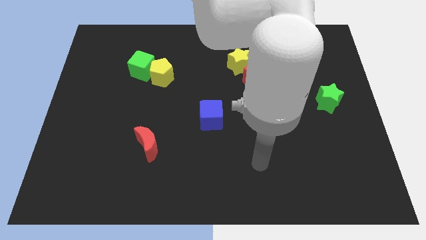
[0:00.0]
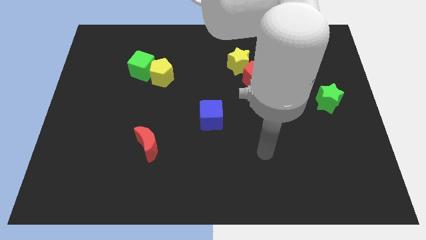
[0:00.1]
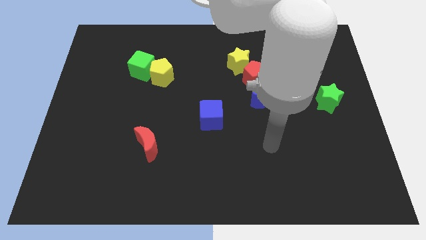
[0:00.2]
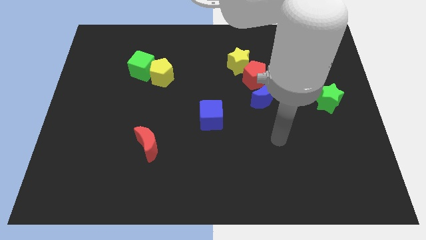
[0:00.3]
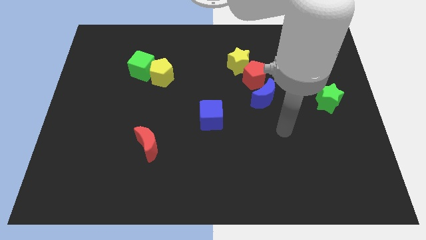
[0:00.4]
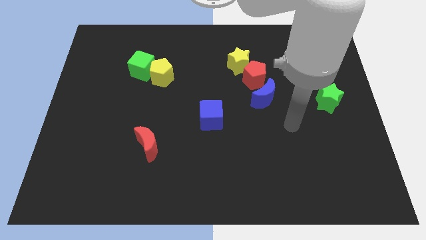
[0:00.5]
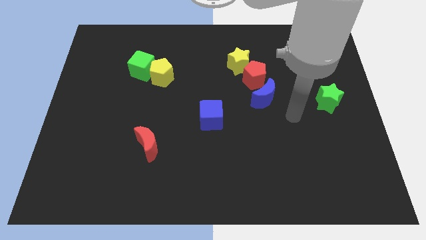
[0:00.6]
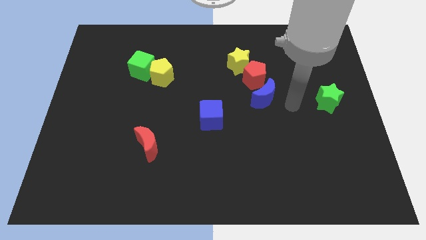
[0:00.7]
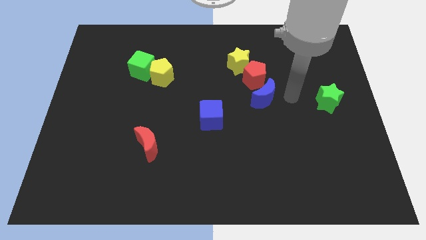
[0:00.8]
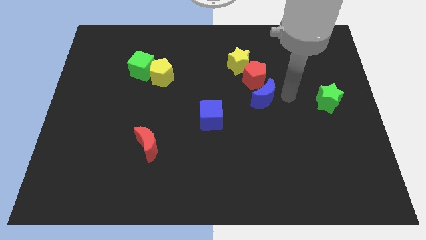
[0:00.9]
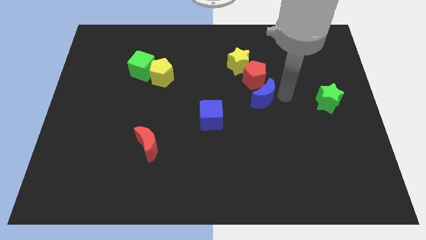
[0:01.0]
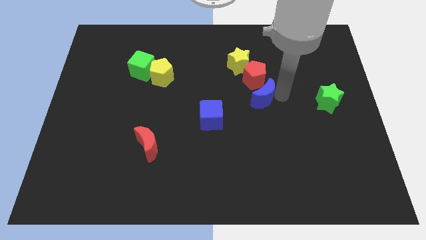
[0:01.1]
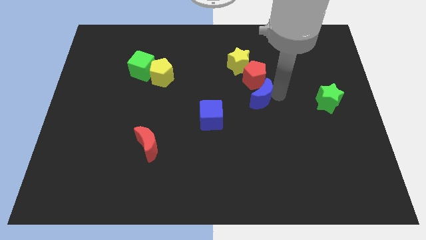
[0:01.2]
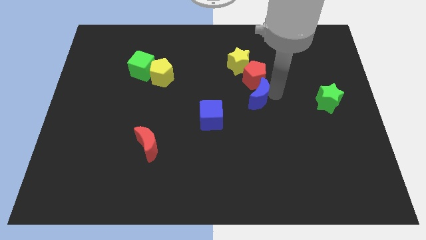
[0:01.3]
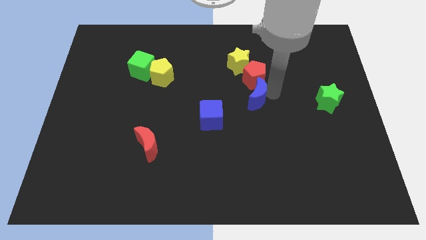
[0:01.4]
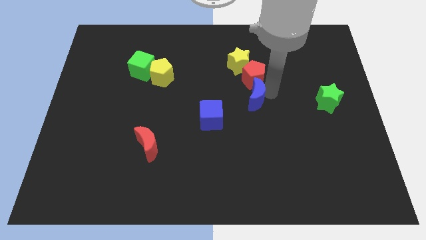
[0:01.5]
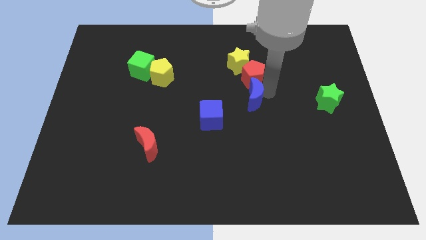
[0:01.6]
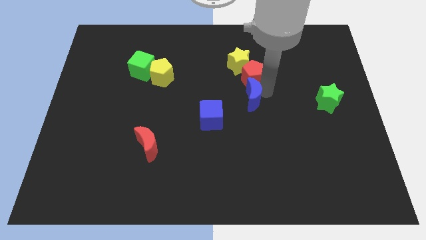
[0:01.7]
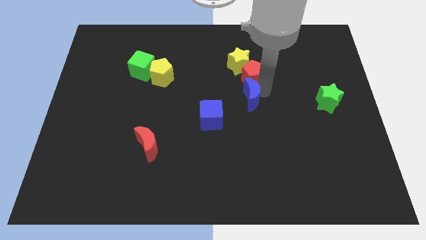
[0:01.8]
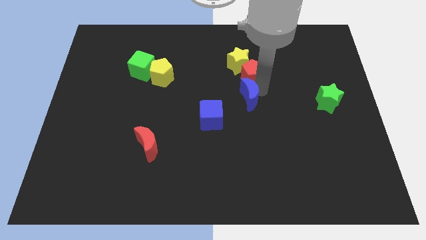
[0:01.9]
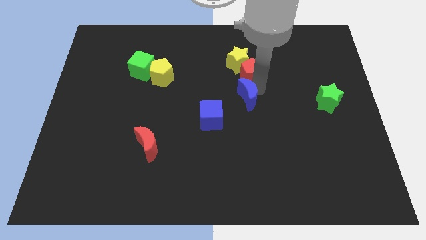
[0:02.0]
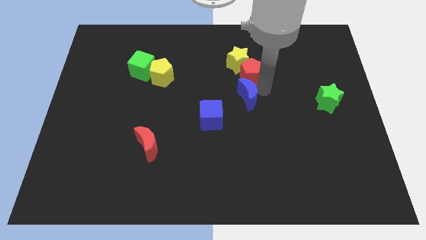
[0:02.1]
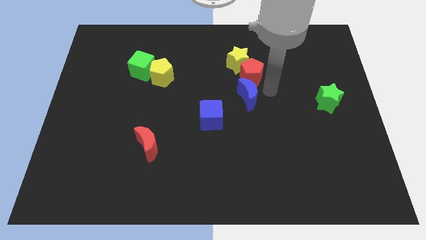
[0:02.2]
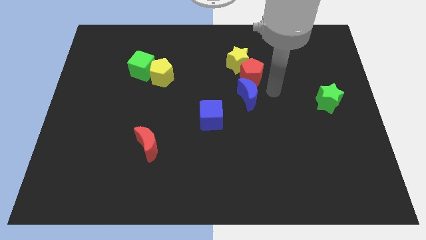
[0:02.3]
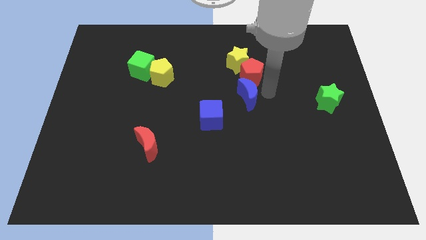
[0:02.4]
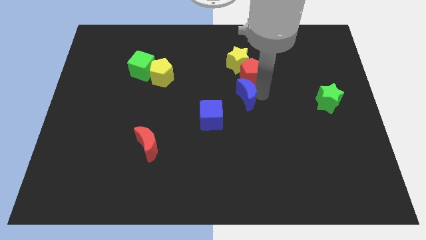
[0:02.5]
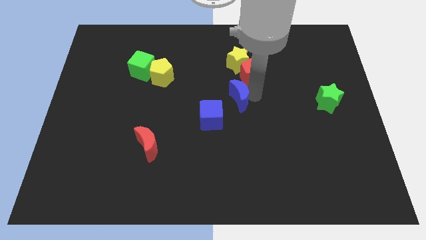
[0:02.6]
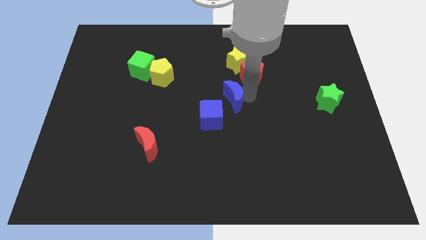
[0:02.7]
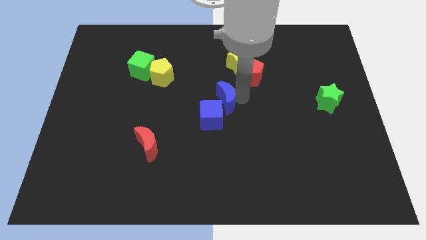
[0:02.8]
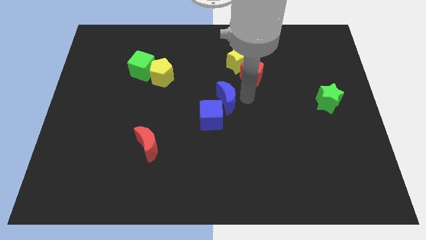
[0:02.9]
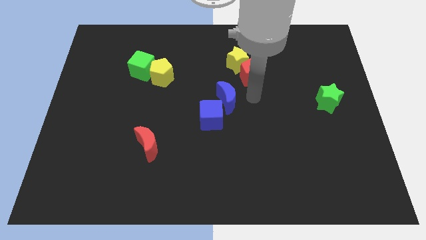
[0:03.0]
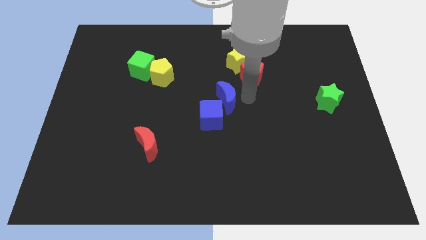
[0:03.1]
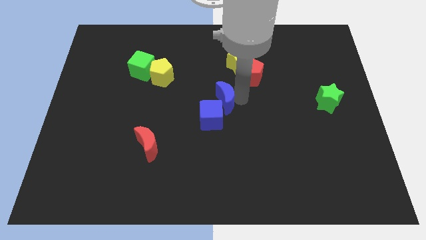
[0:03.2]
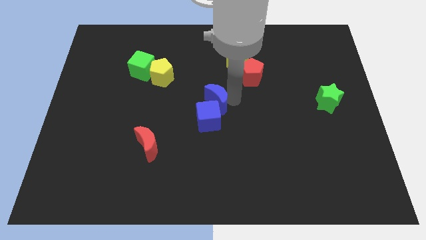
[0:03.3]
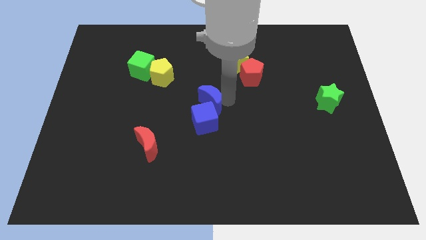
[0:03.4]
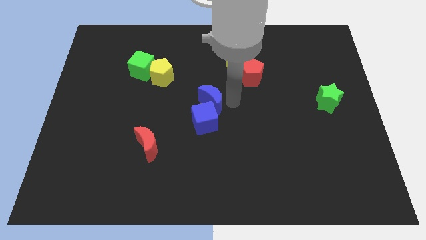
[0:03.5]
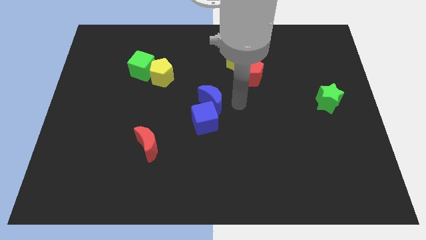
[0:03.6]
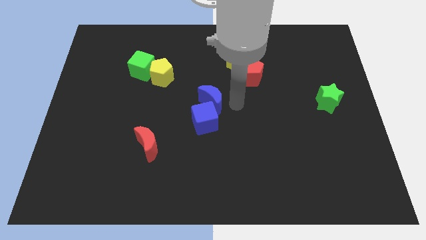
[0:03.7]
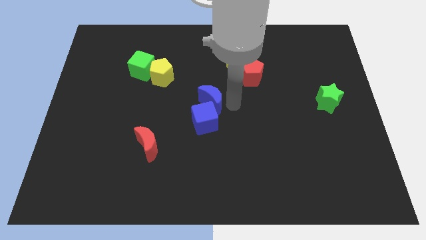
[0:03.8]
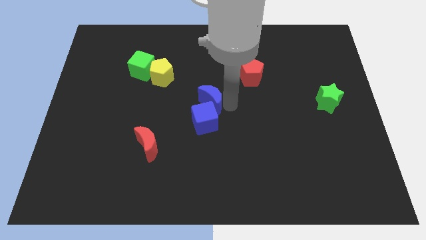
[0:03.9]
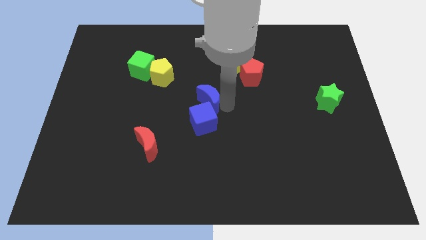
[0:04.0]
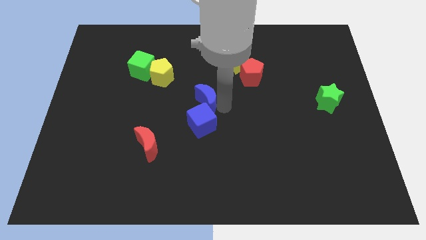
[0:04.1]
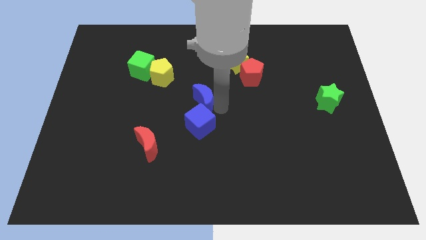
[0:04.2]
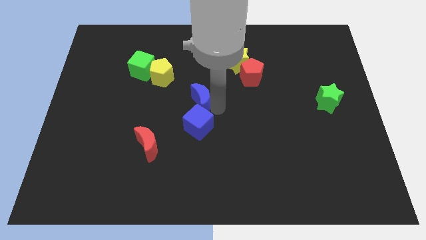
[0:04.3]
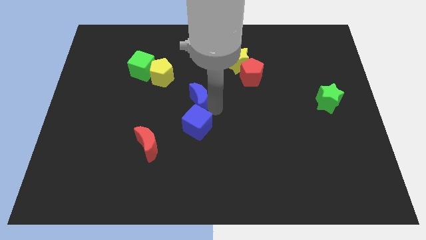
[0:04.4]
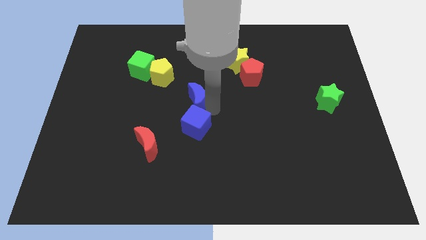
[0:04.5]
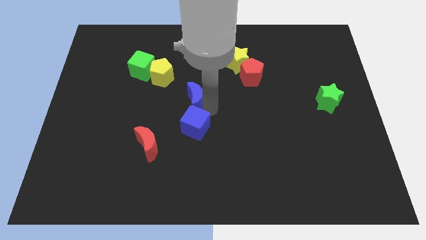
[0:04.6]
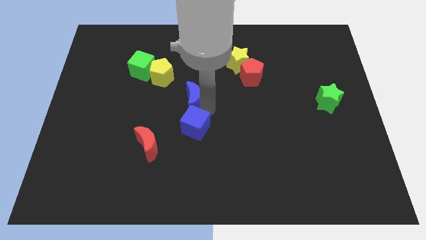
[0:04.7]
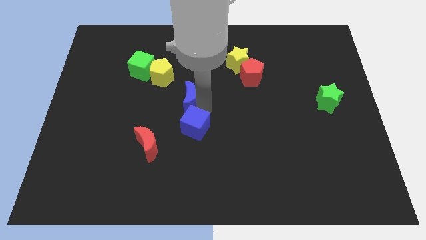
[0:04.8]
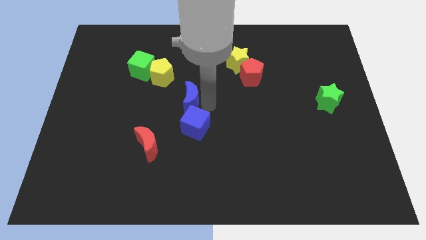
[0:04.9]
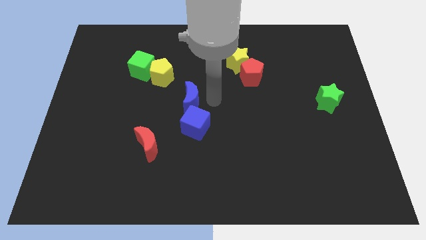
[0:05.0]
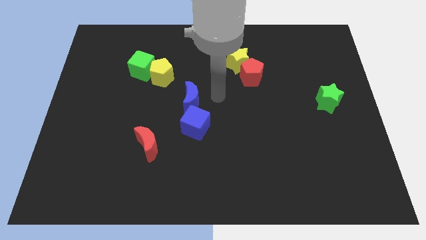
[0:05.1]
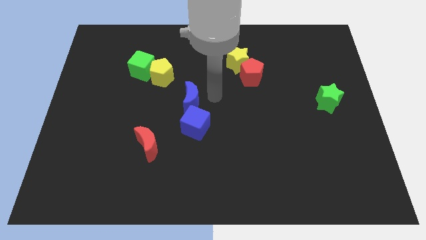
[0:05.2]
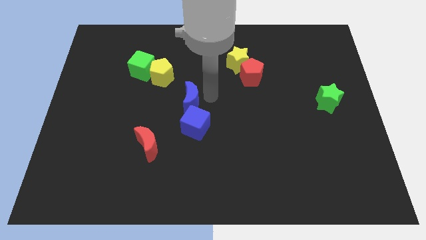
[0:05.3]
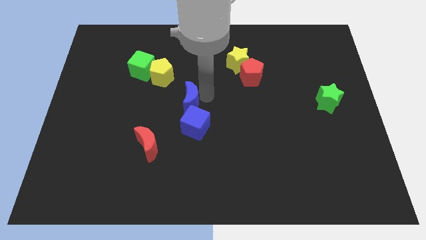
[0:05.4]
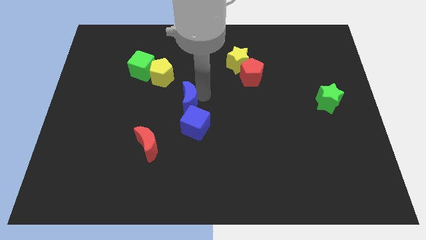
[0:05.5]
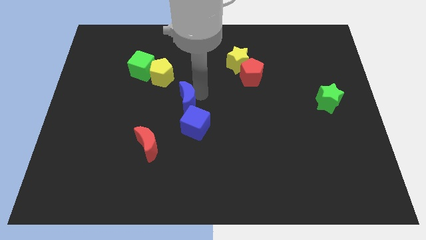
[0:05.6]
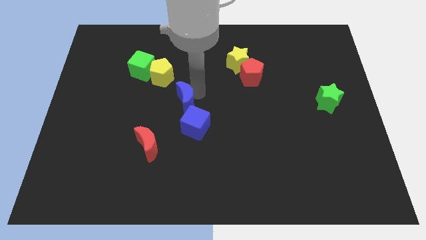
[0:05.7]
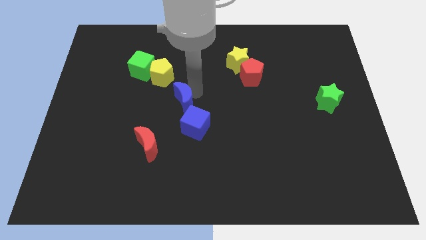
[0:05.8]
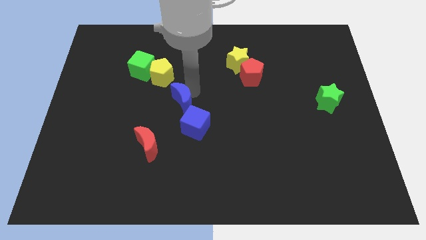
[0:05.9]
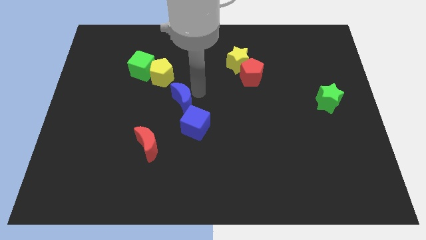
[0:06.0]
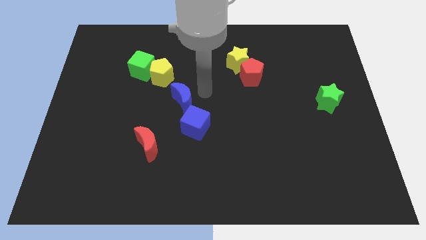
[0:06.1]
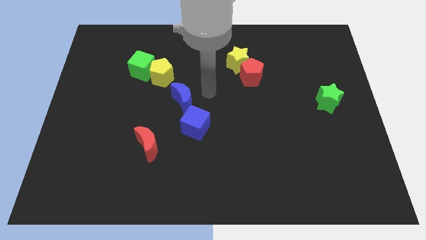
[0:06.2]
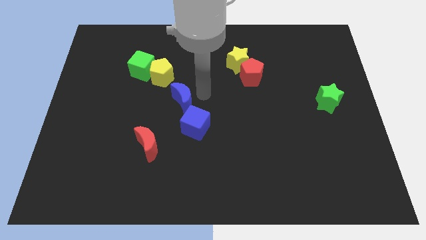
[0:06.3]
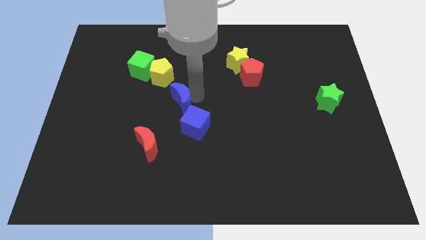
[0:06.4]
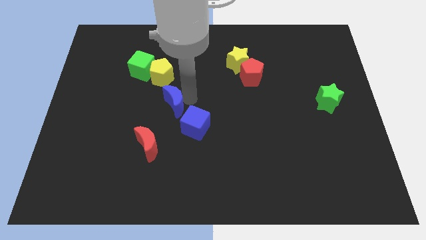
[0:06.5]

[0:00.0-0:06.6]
push the blue moon below the yellow pentagon
